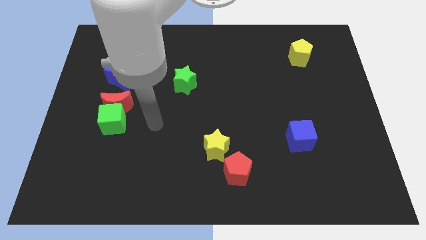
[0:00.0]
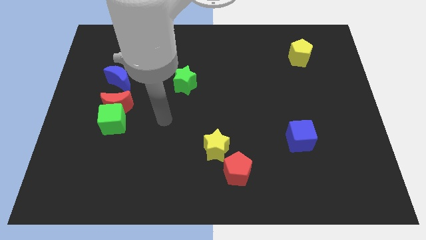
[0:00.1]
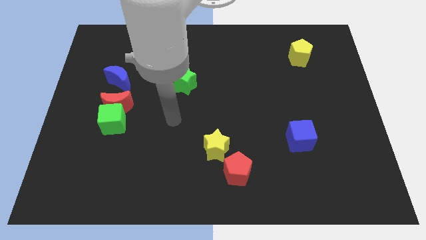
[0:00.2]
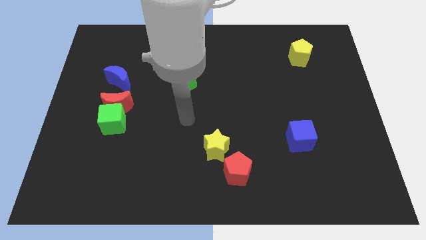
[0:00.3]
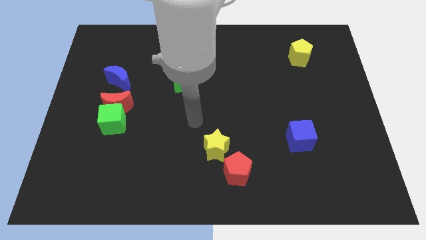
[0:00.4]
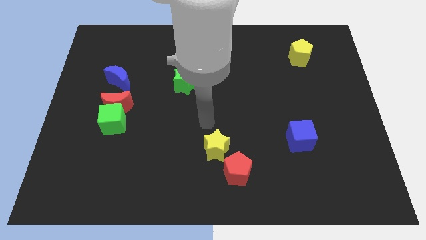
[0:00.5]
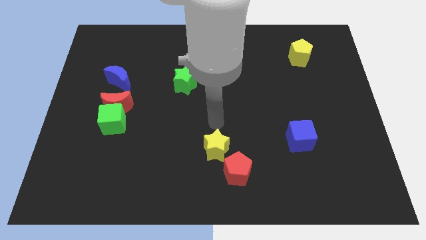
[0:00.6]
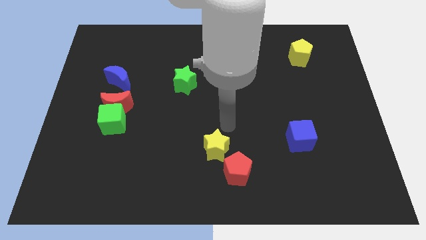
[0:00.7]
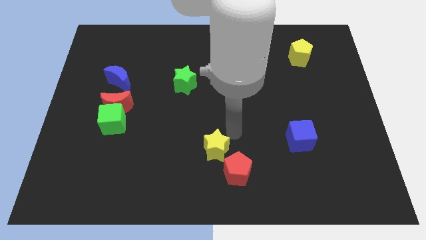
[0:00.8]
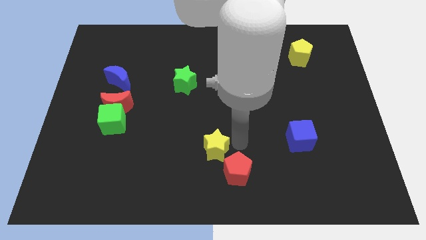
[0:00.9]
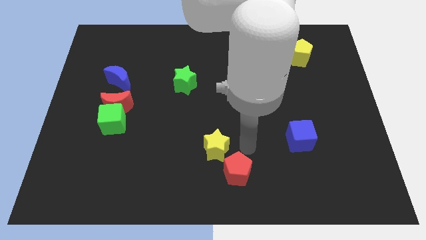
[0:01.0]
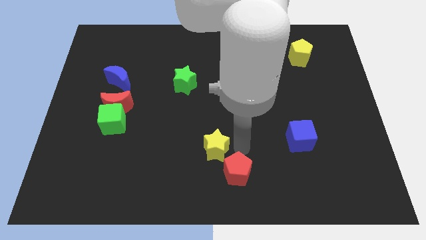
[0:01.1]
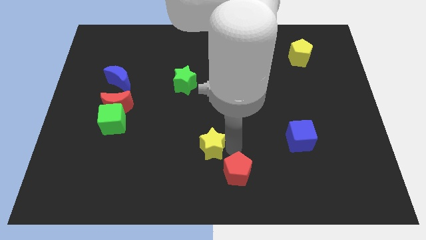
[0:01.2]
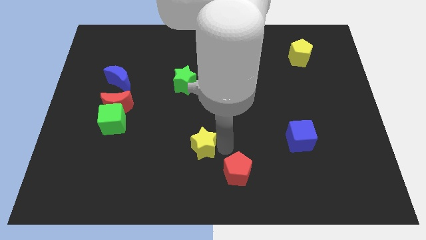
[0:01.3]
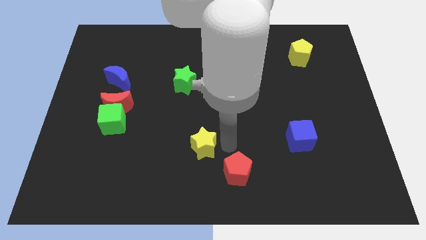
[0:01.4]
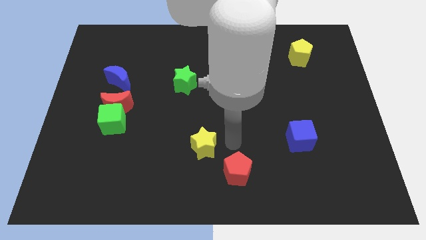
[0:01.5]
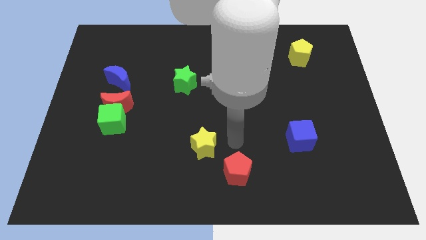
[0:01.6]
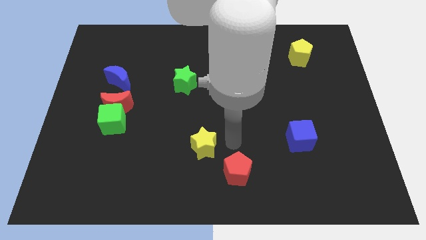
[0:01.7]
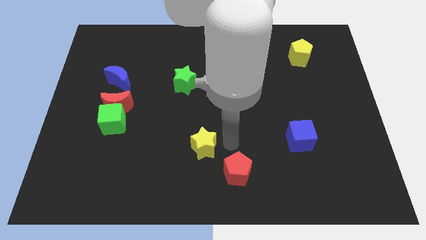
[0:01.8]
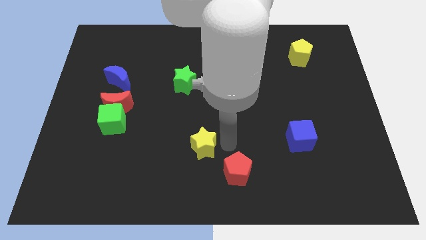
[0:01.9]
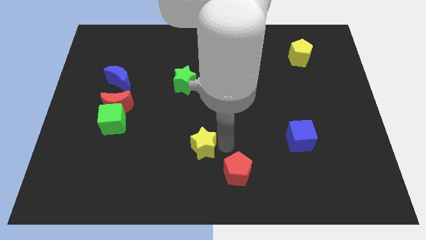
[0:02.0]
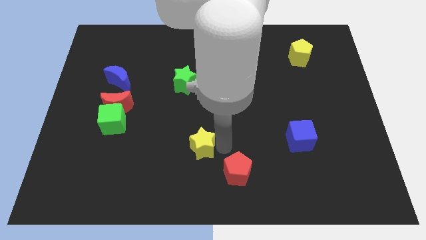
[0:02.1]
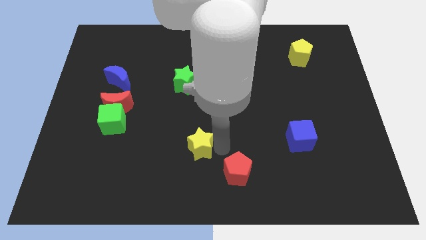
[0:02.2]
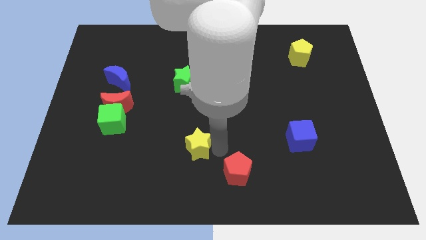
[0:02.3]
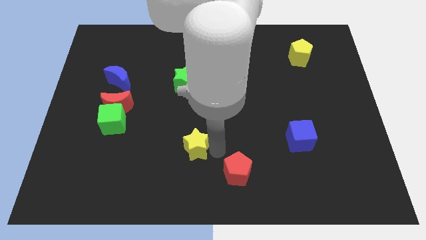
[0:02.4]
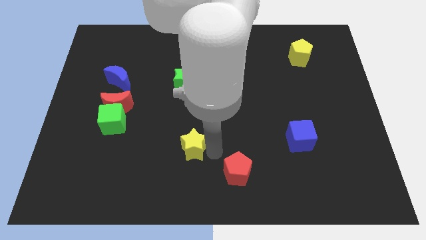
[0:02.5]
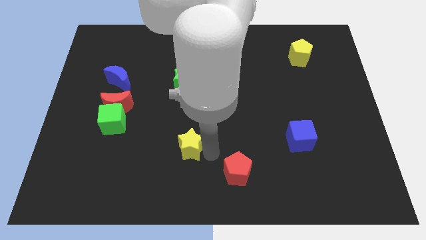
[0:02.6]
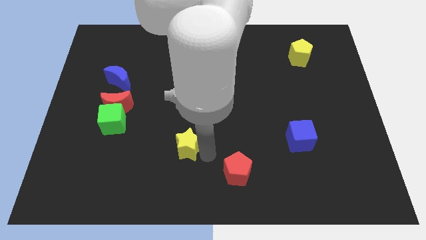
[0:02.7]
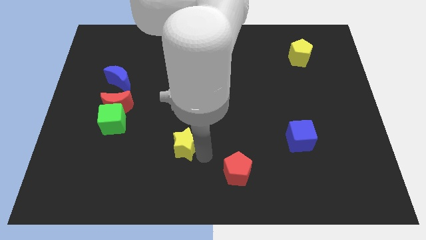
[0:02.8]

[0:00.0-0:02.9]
slide the yellow star left a little bit

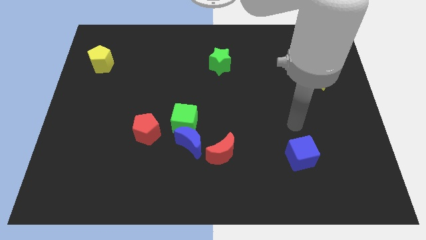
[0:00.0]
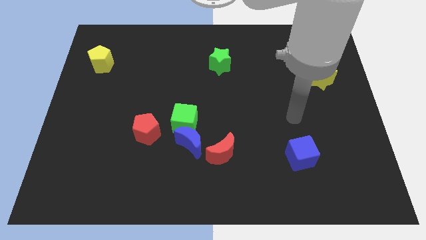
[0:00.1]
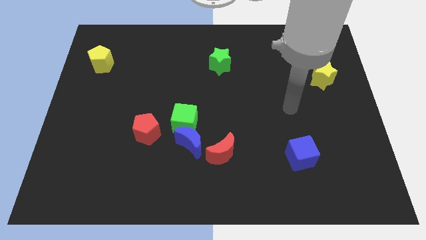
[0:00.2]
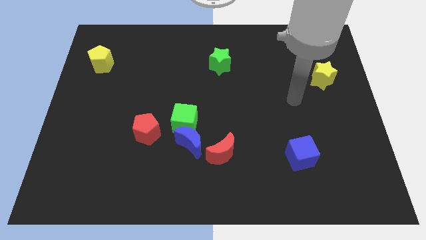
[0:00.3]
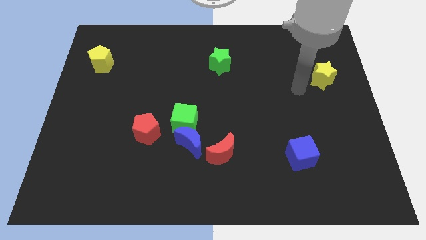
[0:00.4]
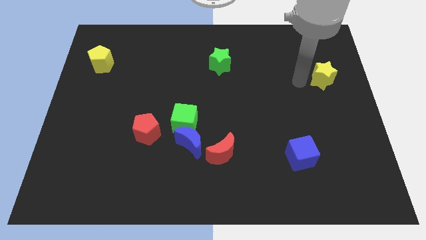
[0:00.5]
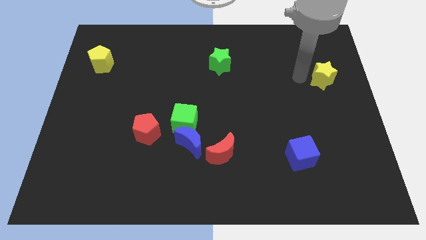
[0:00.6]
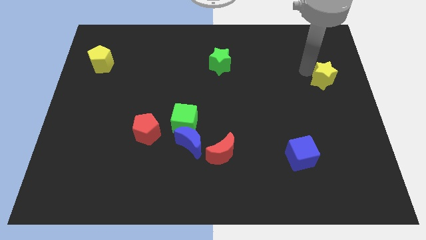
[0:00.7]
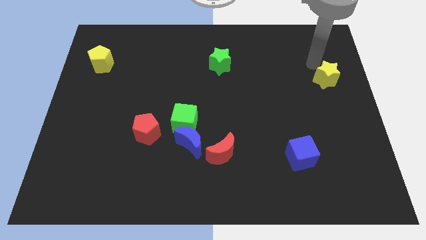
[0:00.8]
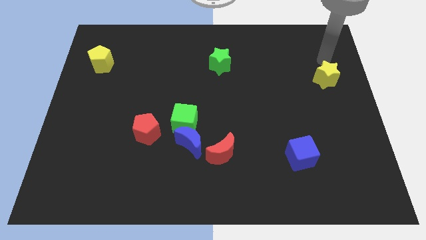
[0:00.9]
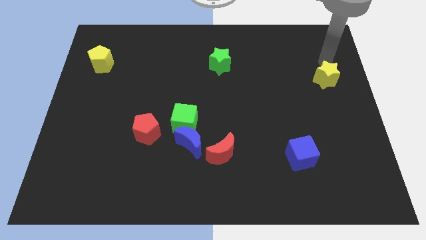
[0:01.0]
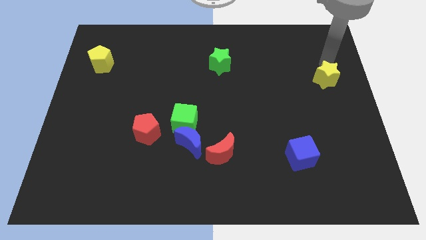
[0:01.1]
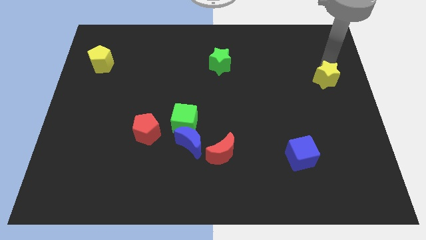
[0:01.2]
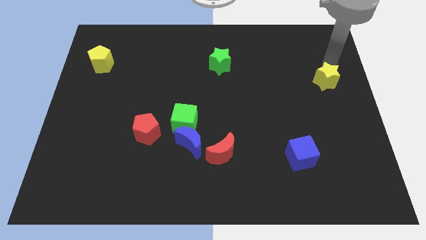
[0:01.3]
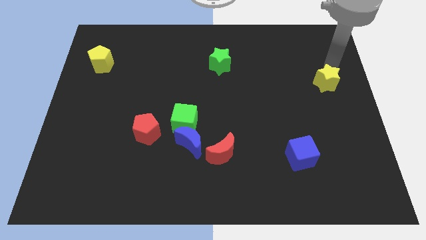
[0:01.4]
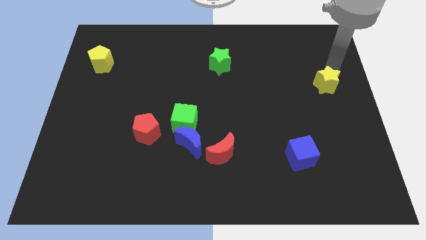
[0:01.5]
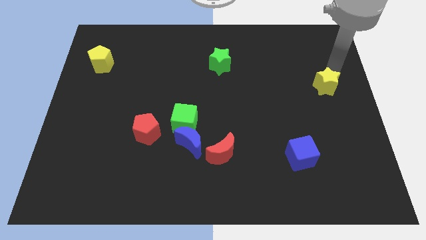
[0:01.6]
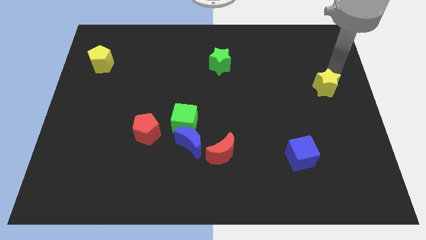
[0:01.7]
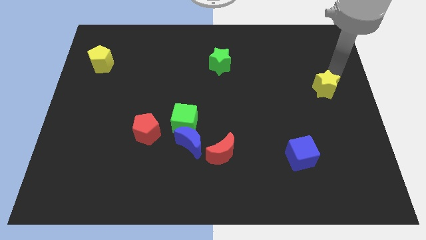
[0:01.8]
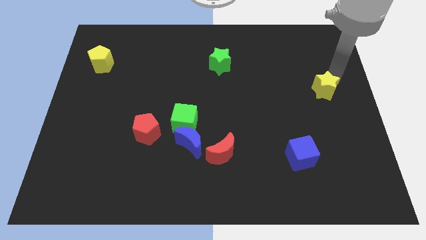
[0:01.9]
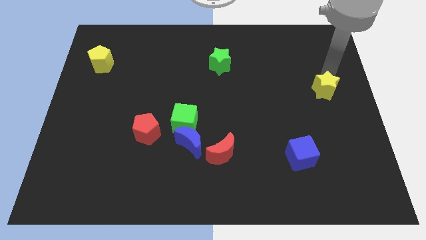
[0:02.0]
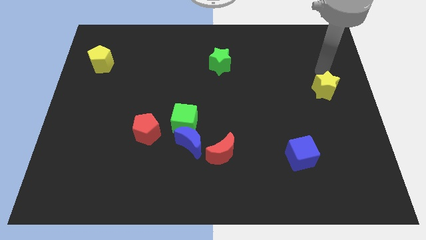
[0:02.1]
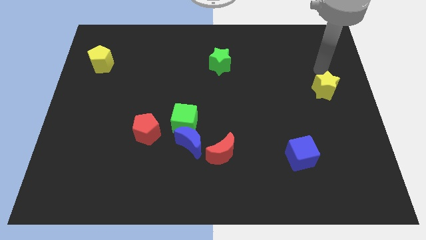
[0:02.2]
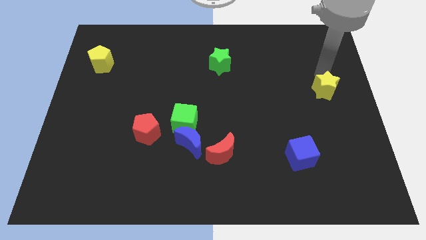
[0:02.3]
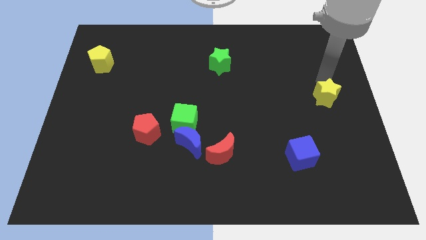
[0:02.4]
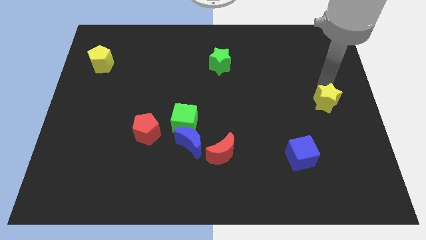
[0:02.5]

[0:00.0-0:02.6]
slightly slide the yellow star downwards

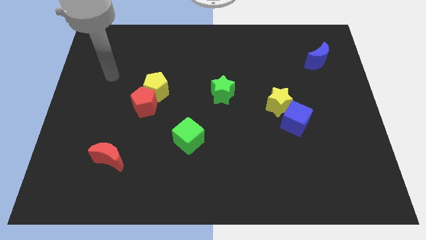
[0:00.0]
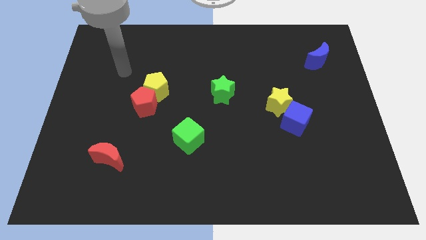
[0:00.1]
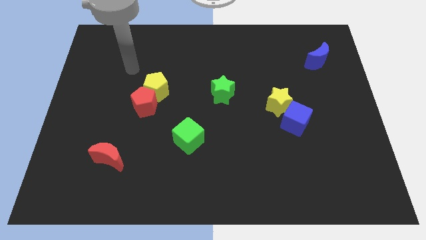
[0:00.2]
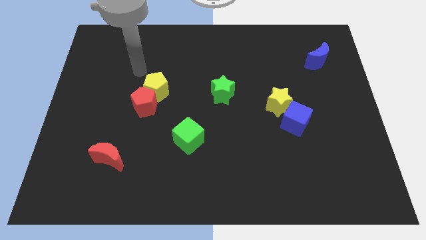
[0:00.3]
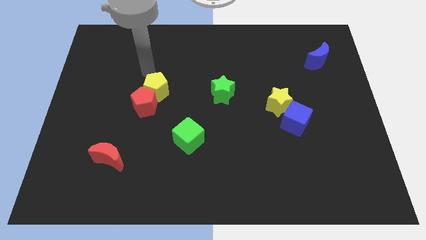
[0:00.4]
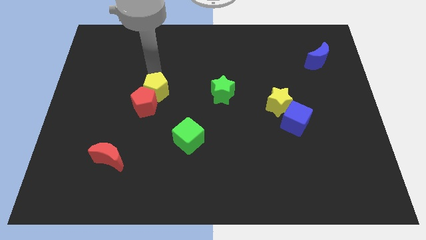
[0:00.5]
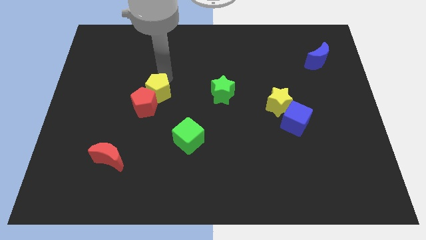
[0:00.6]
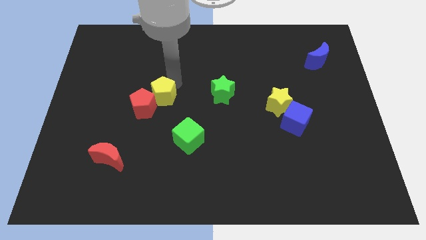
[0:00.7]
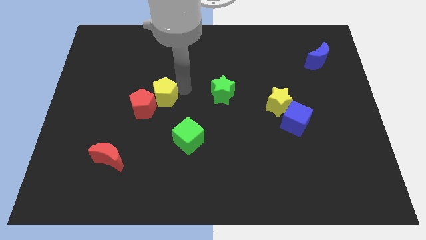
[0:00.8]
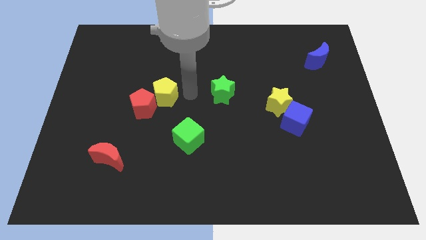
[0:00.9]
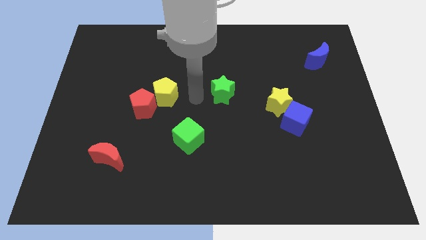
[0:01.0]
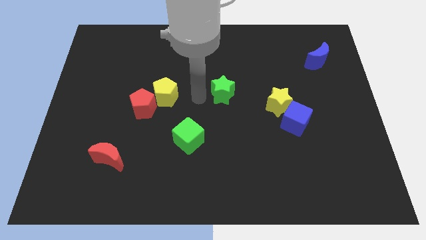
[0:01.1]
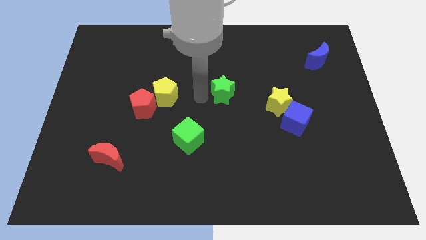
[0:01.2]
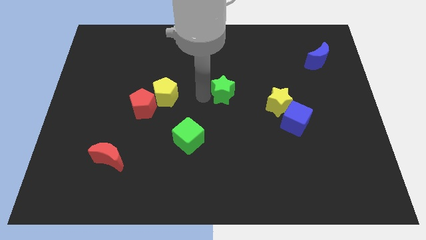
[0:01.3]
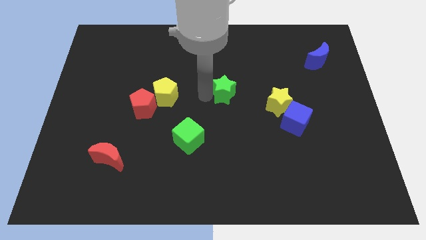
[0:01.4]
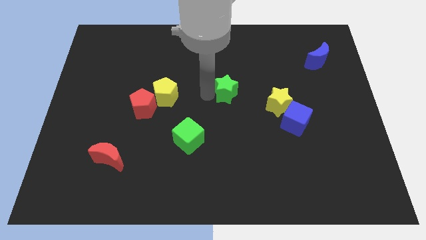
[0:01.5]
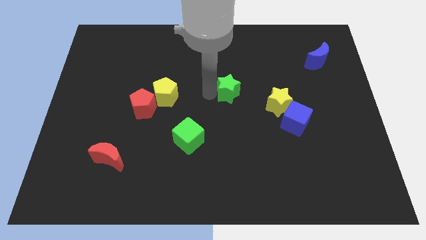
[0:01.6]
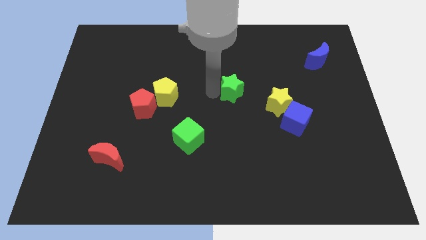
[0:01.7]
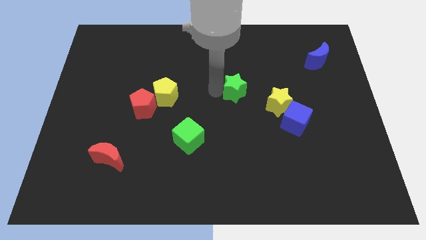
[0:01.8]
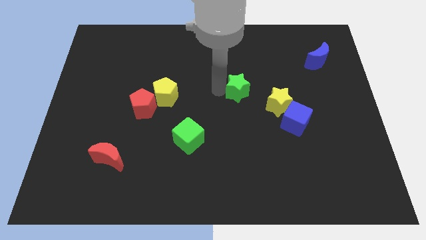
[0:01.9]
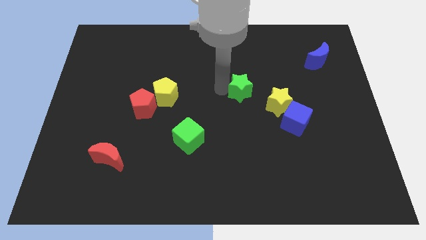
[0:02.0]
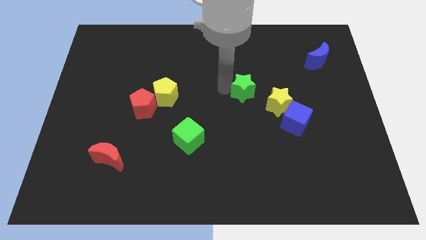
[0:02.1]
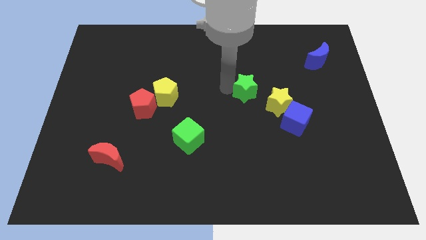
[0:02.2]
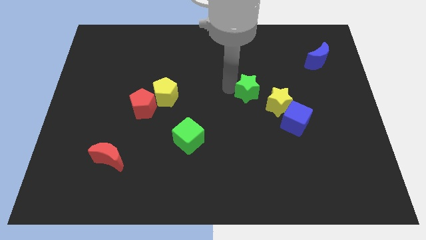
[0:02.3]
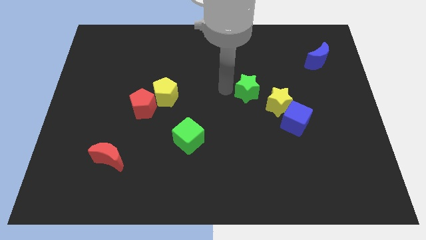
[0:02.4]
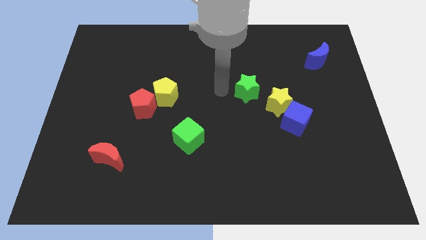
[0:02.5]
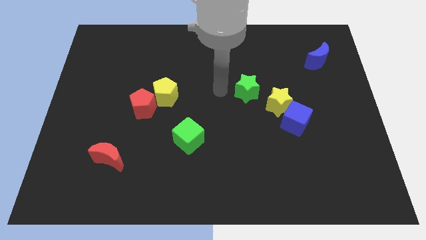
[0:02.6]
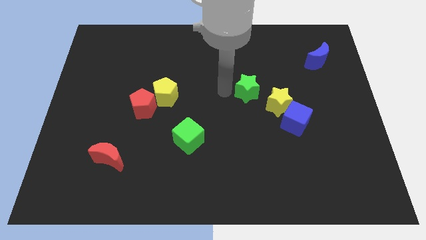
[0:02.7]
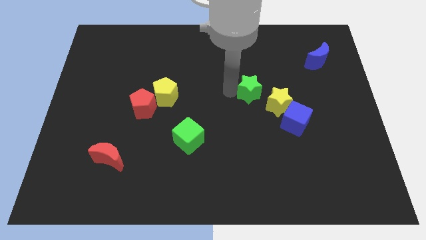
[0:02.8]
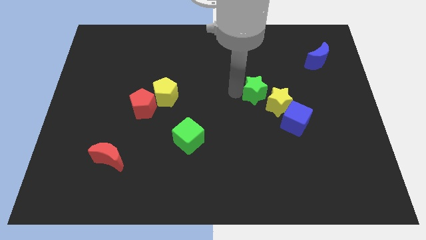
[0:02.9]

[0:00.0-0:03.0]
move the green star to the right somewhat
